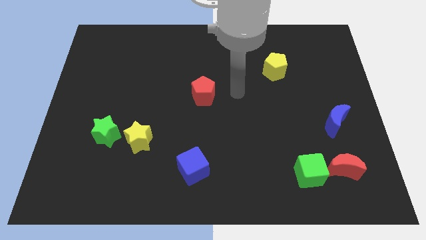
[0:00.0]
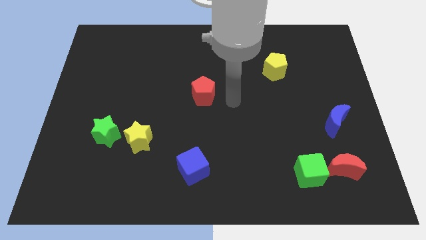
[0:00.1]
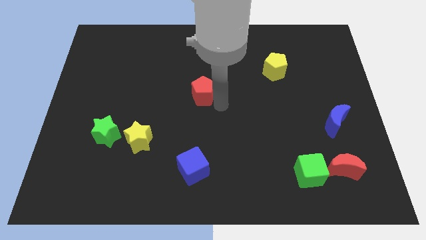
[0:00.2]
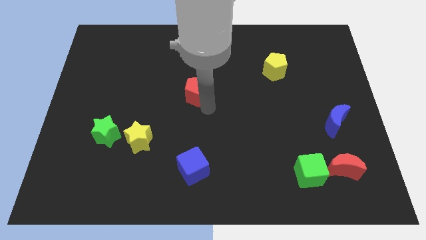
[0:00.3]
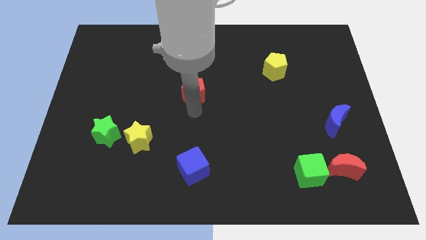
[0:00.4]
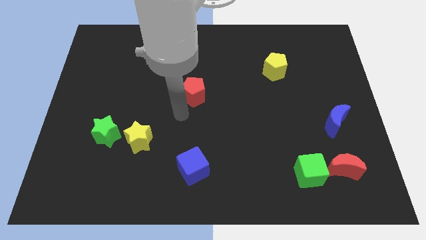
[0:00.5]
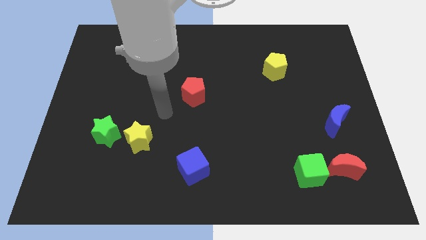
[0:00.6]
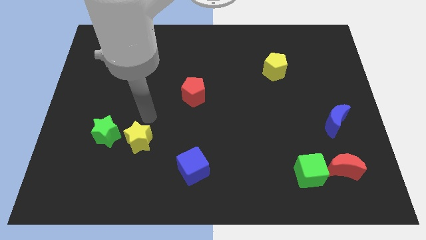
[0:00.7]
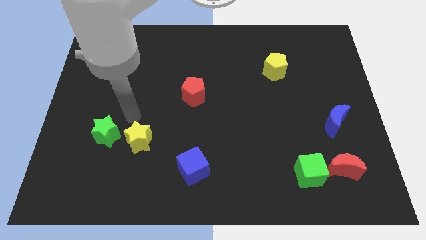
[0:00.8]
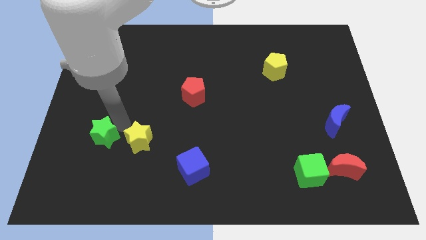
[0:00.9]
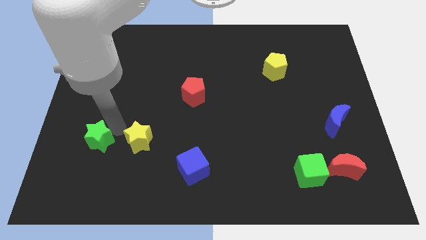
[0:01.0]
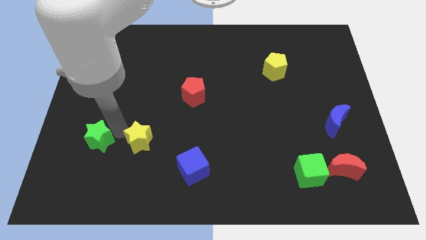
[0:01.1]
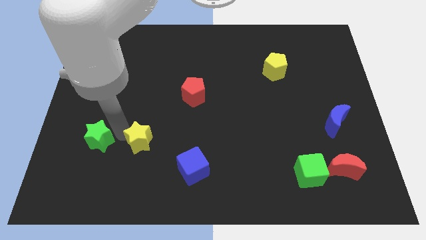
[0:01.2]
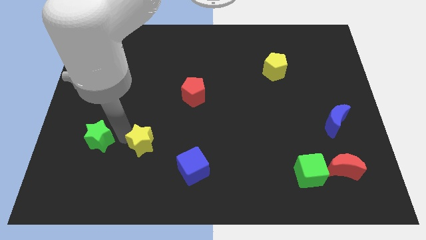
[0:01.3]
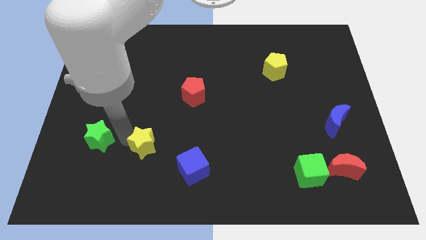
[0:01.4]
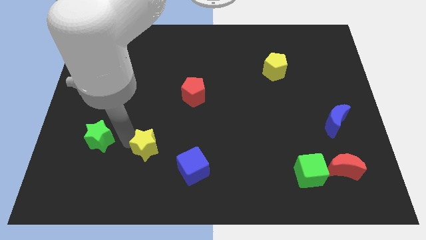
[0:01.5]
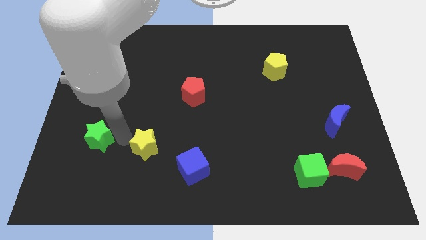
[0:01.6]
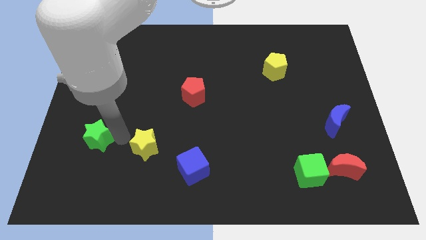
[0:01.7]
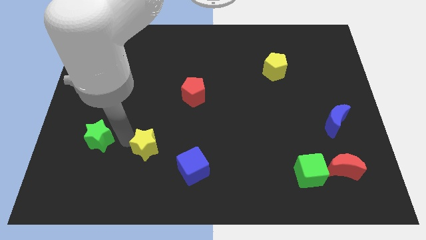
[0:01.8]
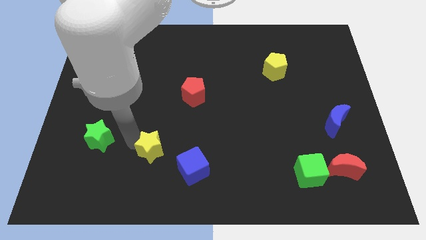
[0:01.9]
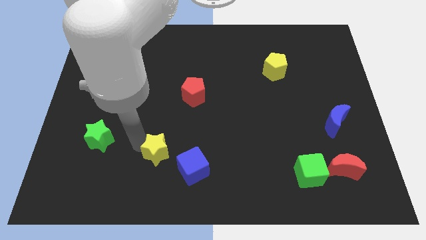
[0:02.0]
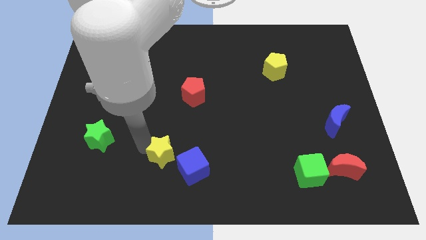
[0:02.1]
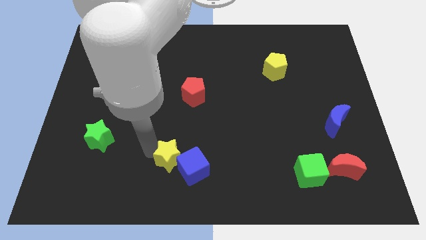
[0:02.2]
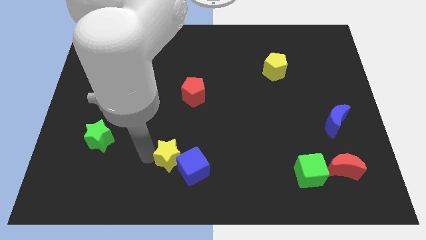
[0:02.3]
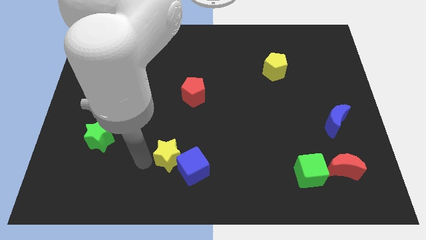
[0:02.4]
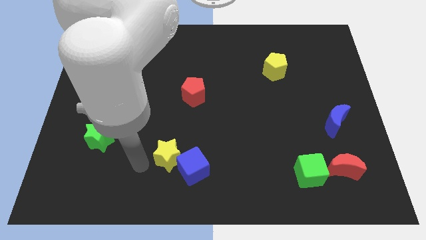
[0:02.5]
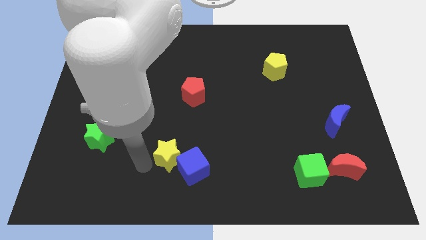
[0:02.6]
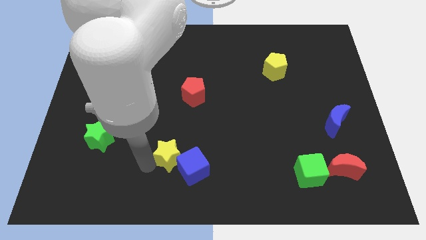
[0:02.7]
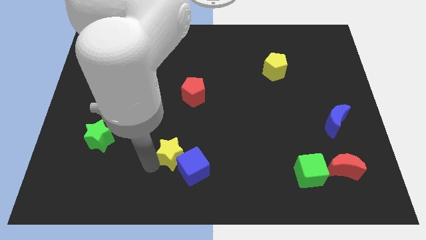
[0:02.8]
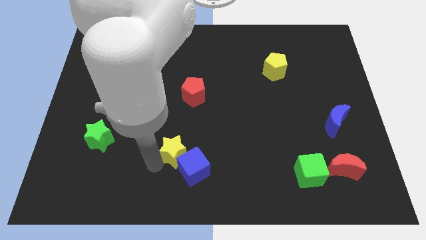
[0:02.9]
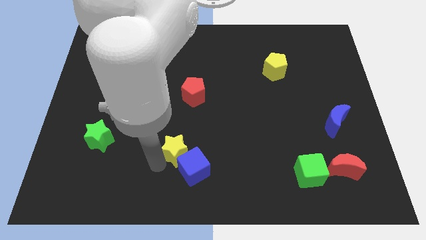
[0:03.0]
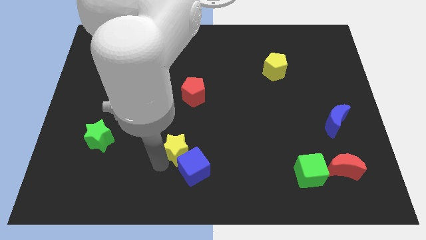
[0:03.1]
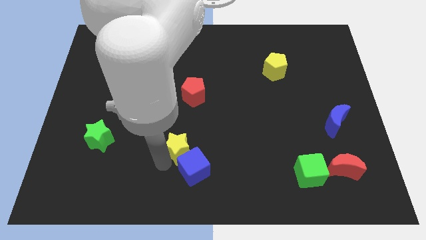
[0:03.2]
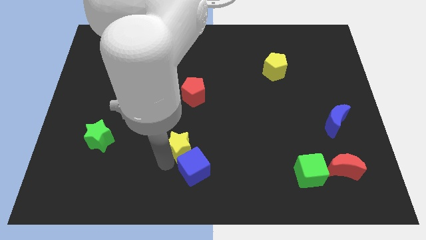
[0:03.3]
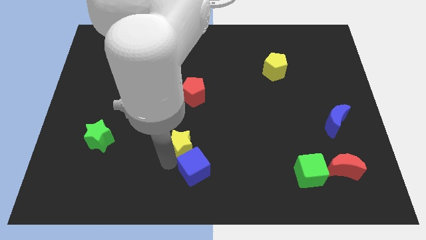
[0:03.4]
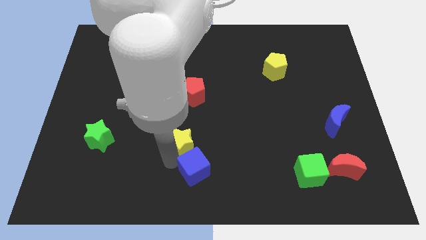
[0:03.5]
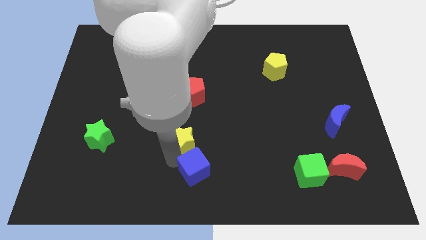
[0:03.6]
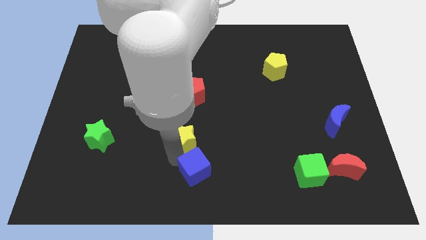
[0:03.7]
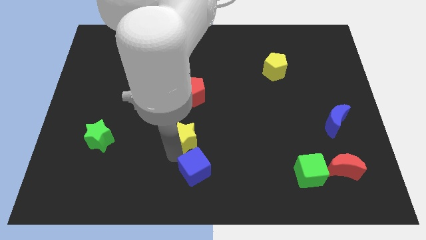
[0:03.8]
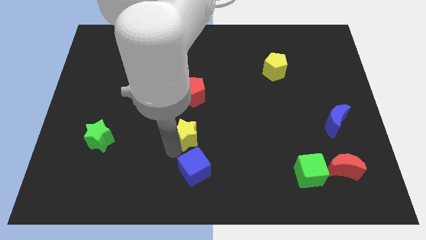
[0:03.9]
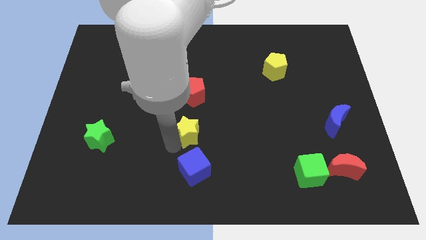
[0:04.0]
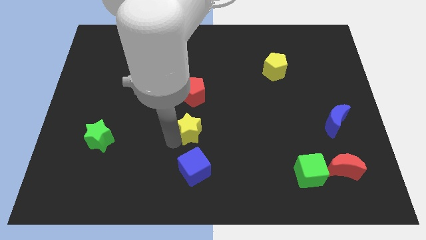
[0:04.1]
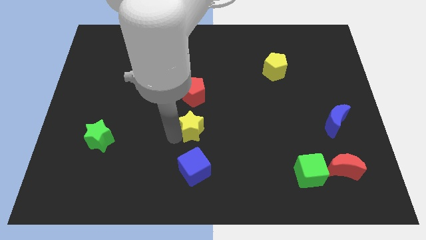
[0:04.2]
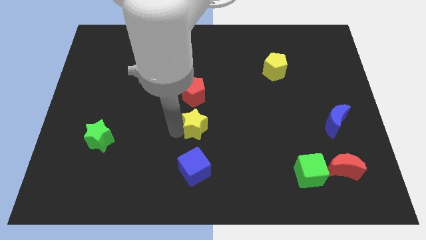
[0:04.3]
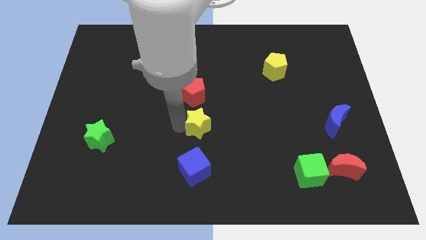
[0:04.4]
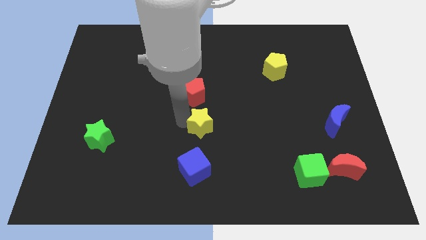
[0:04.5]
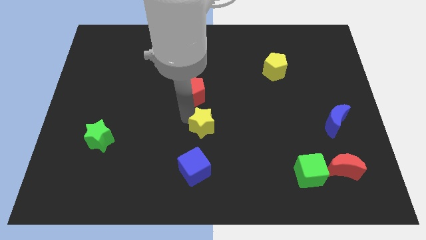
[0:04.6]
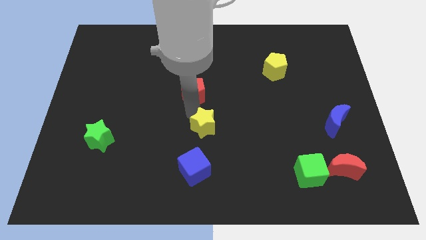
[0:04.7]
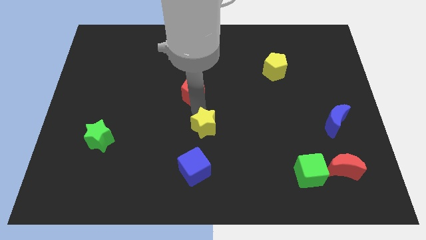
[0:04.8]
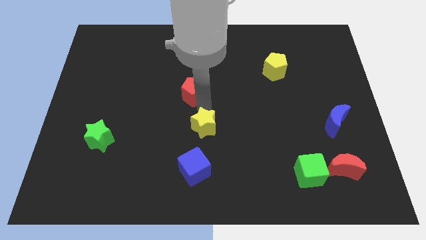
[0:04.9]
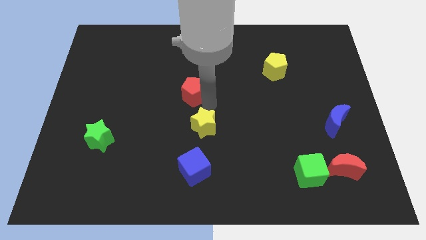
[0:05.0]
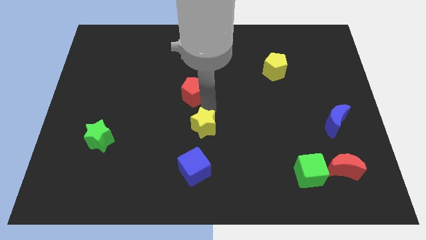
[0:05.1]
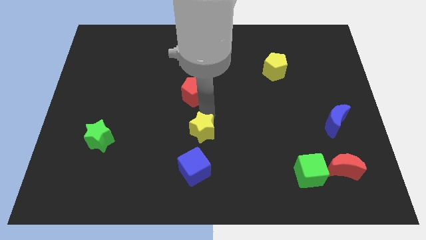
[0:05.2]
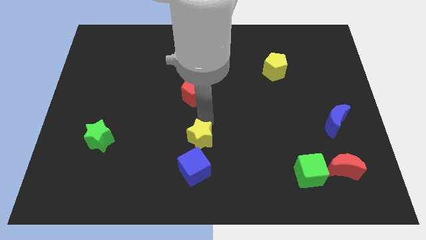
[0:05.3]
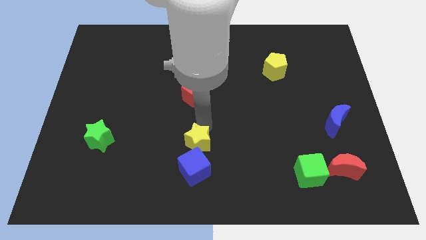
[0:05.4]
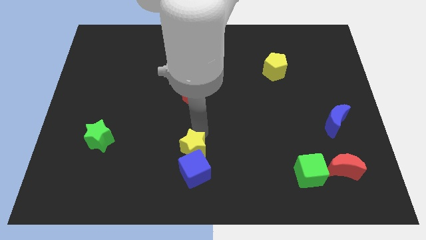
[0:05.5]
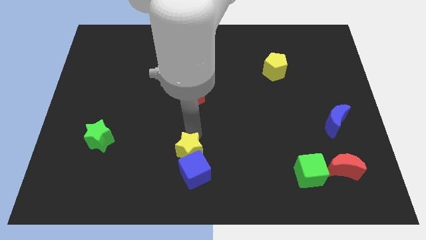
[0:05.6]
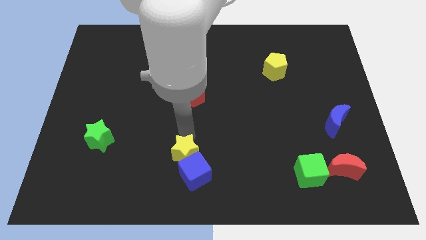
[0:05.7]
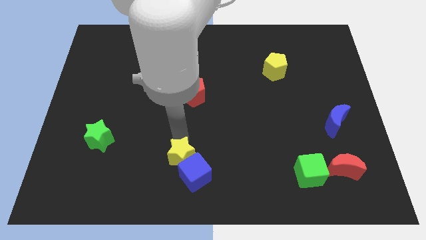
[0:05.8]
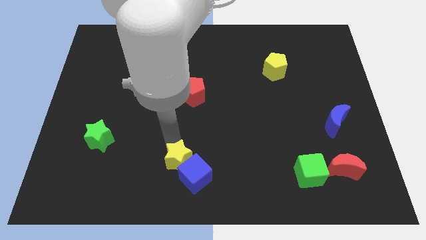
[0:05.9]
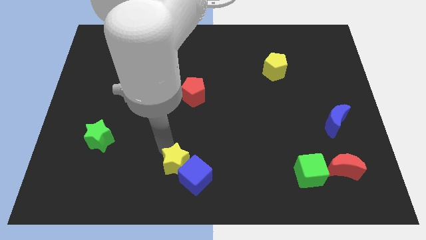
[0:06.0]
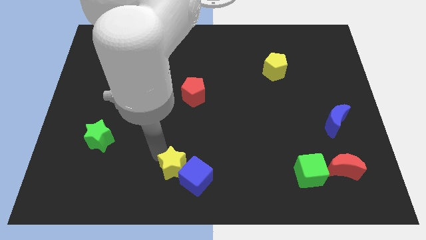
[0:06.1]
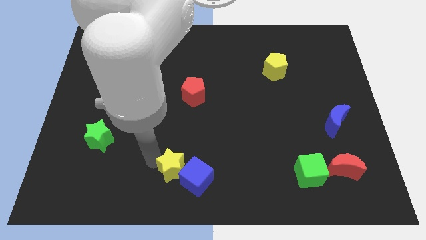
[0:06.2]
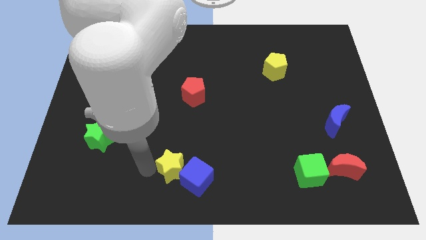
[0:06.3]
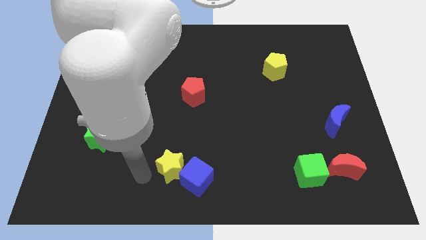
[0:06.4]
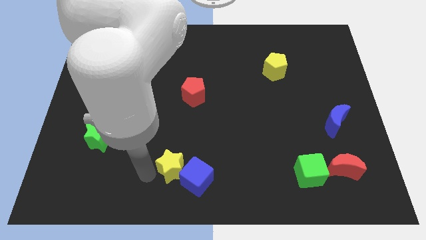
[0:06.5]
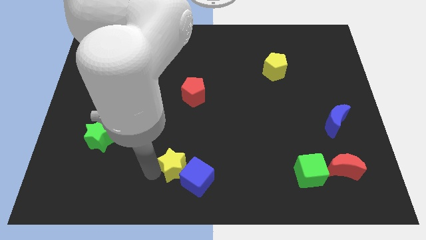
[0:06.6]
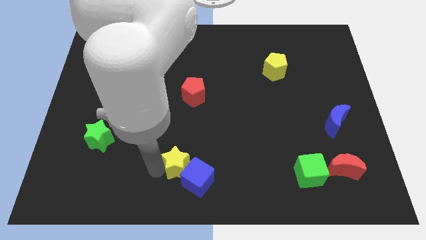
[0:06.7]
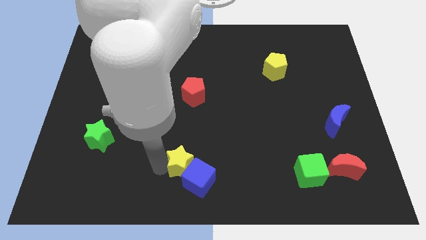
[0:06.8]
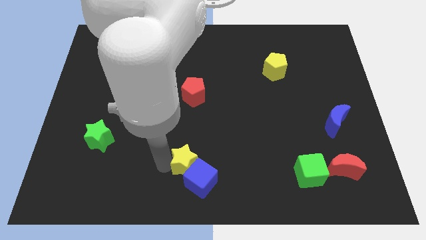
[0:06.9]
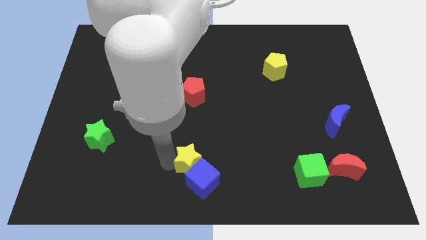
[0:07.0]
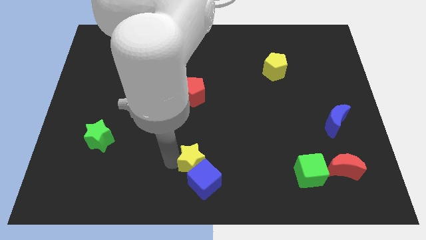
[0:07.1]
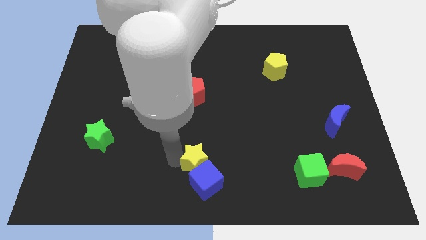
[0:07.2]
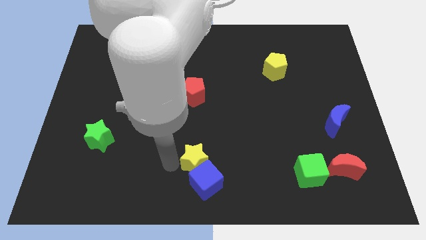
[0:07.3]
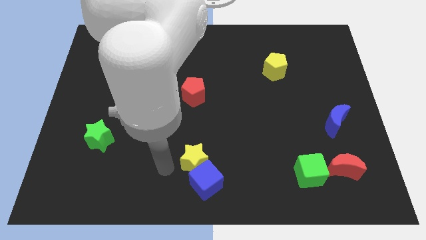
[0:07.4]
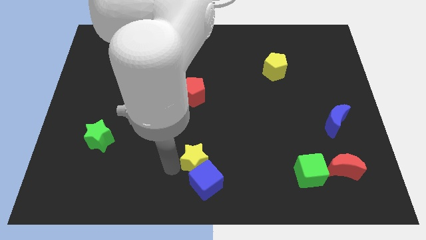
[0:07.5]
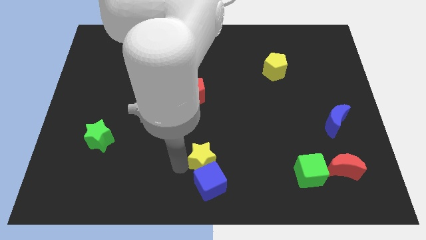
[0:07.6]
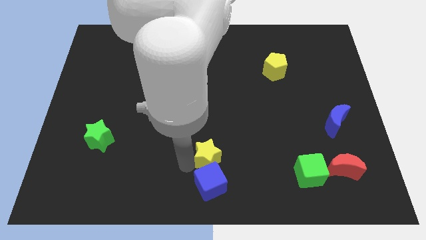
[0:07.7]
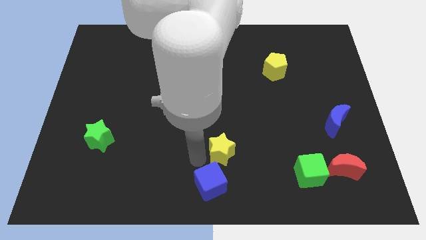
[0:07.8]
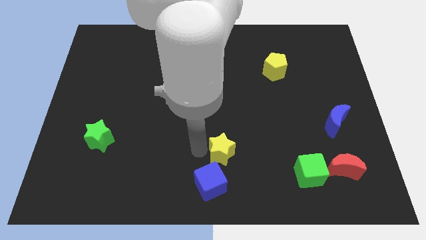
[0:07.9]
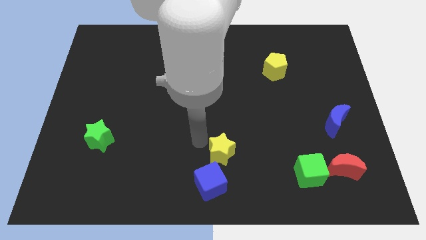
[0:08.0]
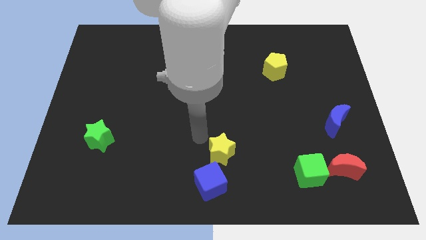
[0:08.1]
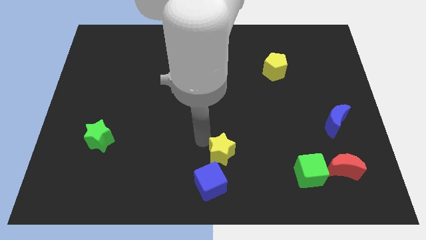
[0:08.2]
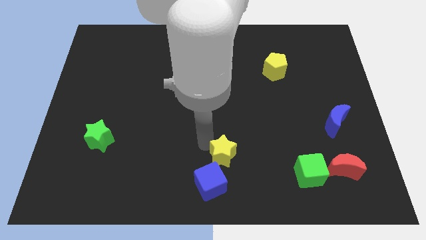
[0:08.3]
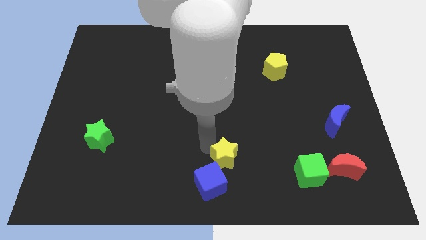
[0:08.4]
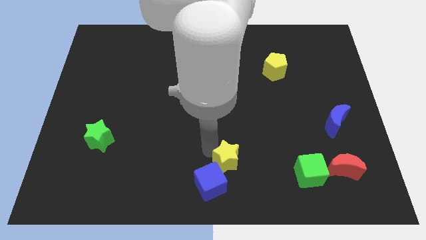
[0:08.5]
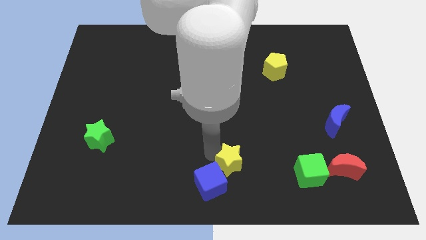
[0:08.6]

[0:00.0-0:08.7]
move the yellow star just right of the blue cube
